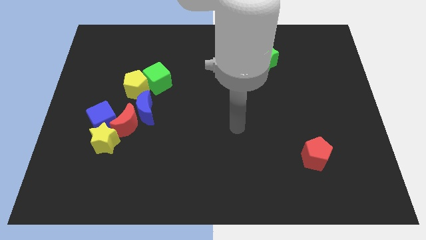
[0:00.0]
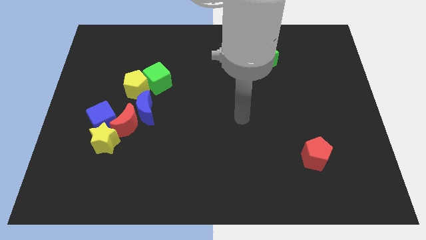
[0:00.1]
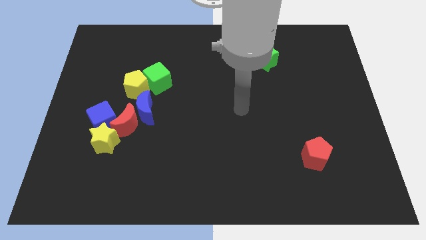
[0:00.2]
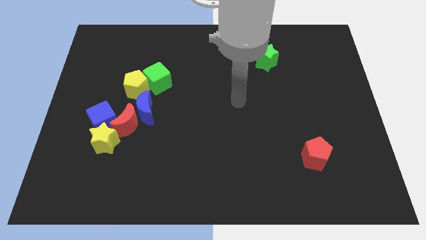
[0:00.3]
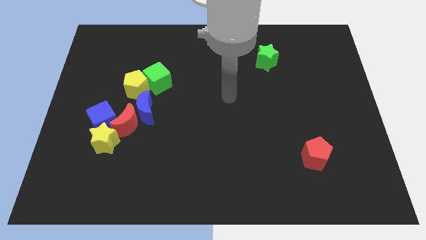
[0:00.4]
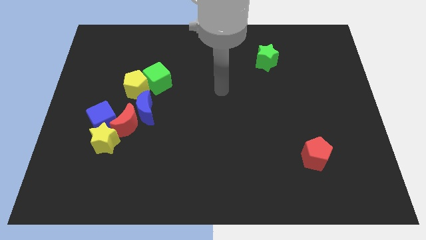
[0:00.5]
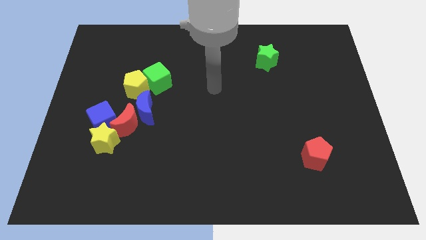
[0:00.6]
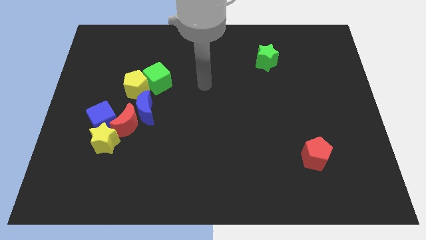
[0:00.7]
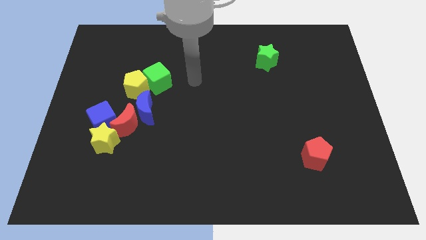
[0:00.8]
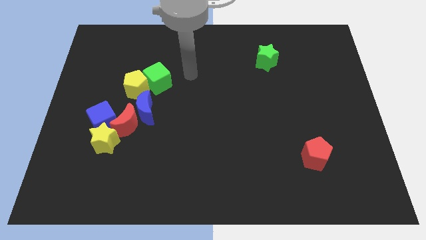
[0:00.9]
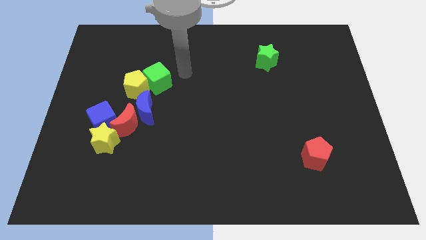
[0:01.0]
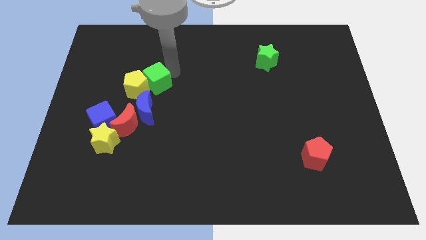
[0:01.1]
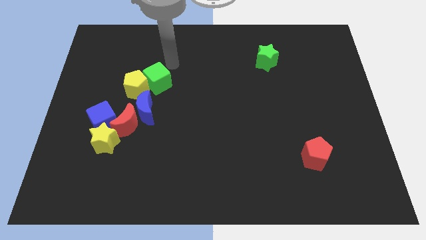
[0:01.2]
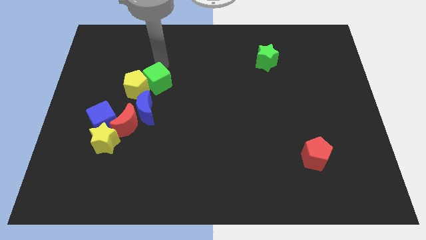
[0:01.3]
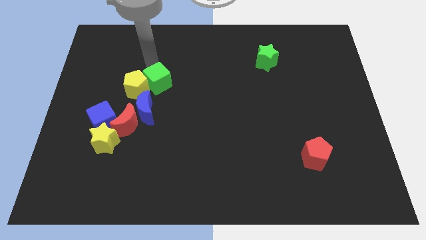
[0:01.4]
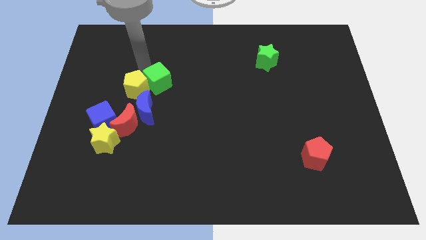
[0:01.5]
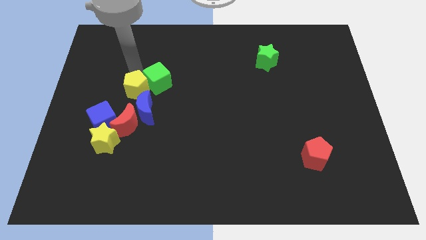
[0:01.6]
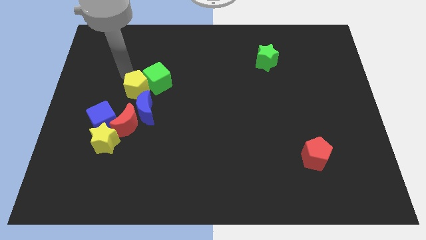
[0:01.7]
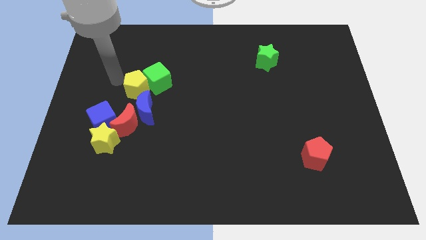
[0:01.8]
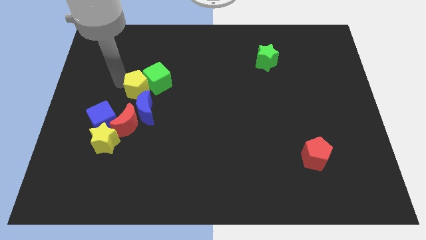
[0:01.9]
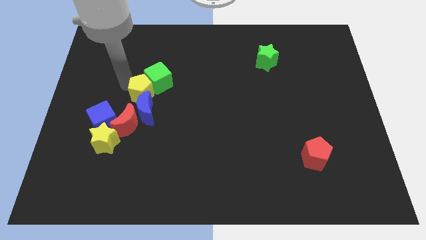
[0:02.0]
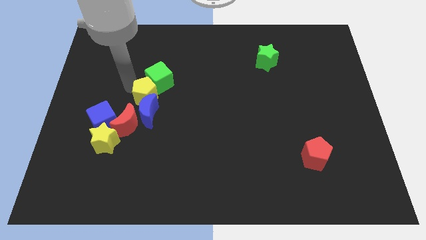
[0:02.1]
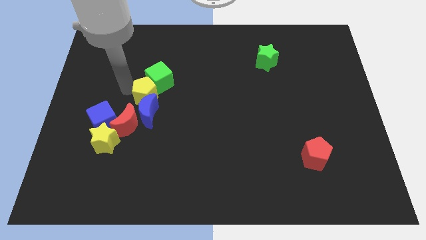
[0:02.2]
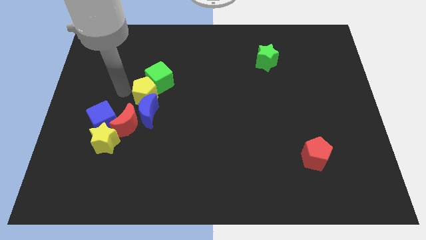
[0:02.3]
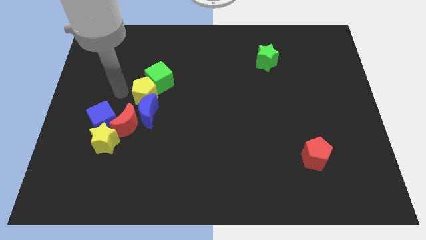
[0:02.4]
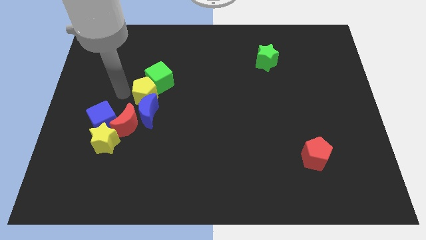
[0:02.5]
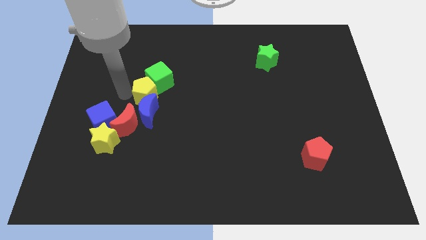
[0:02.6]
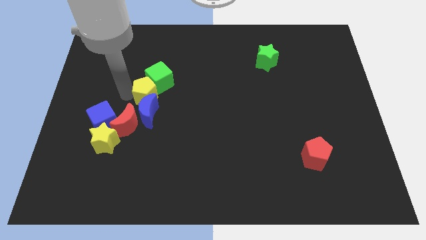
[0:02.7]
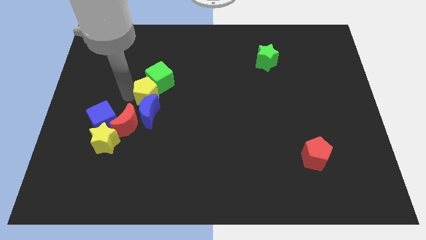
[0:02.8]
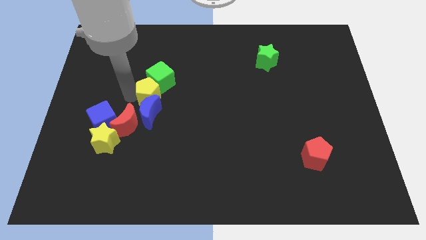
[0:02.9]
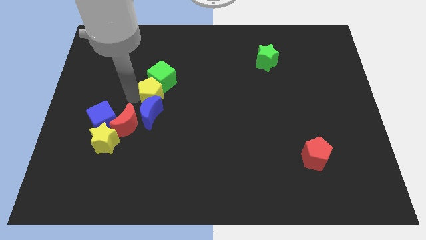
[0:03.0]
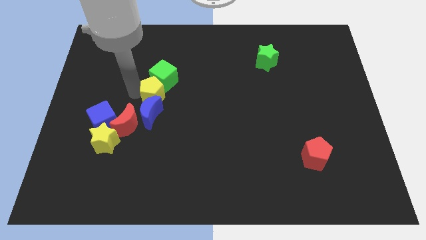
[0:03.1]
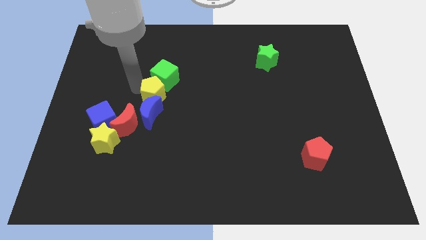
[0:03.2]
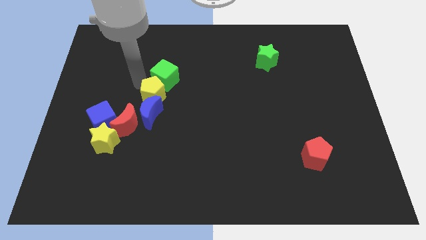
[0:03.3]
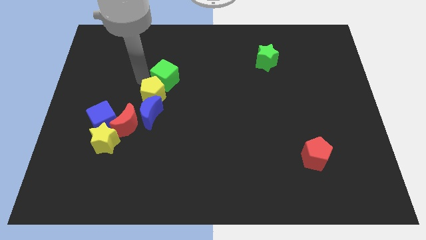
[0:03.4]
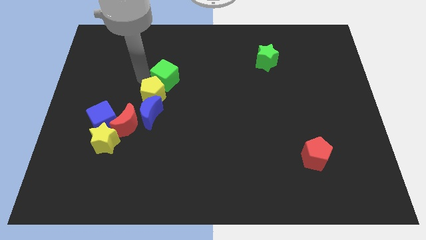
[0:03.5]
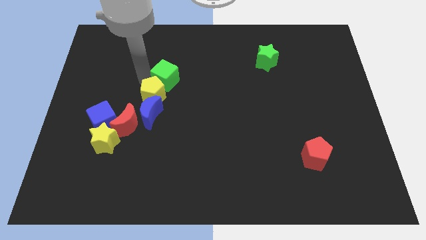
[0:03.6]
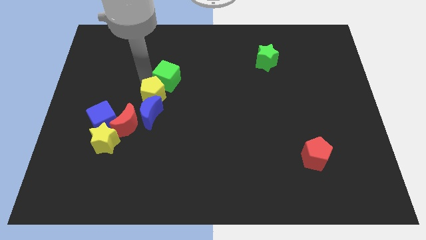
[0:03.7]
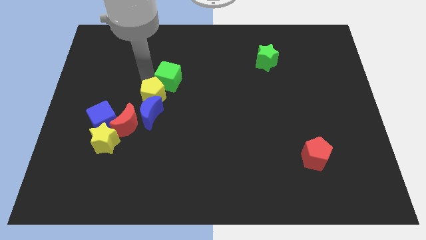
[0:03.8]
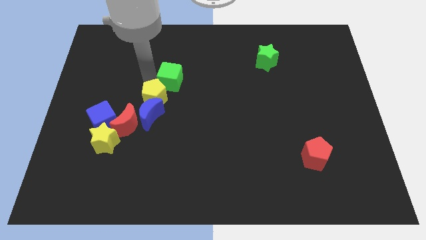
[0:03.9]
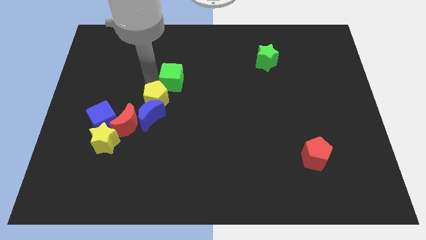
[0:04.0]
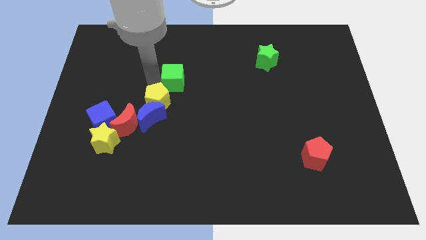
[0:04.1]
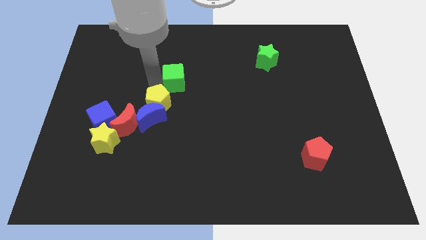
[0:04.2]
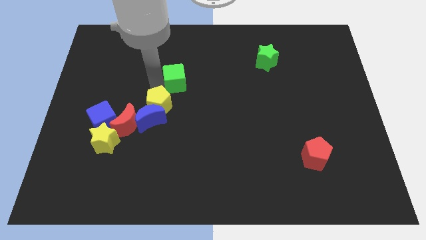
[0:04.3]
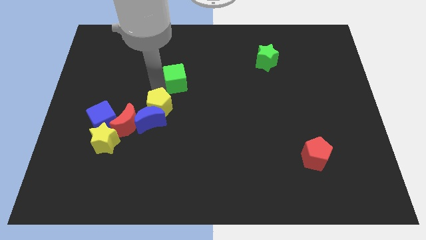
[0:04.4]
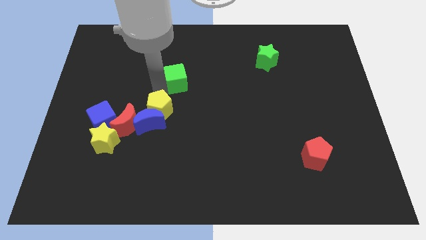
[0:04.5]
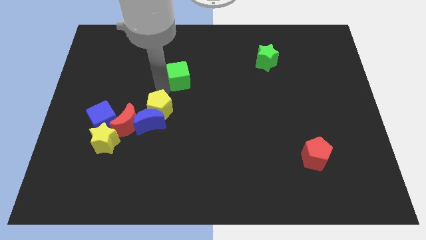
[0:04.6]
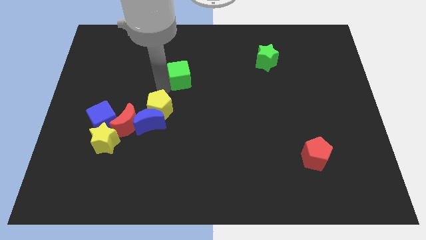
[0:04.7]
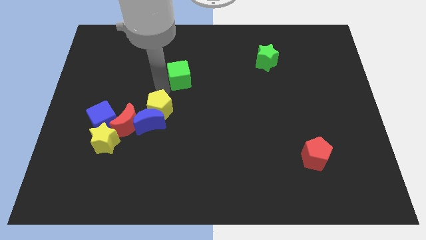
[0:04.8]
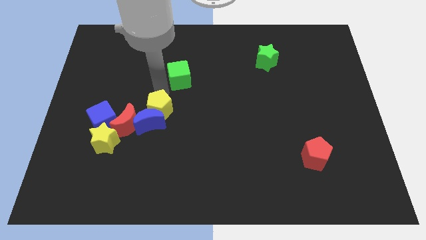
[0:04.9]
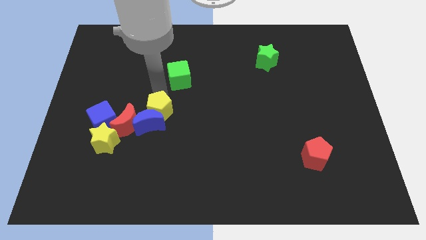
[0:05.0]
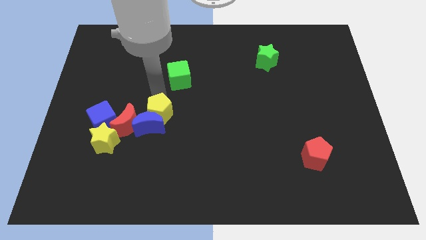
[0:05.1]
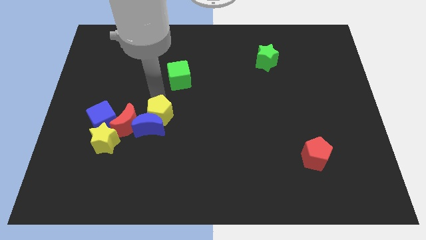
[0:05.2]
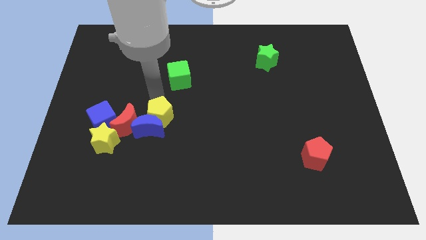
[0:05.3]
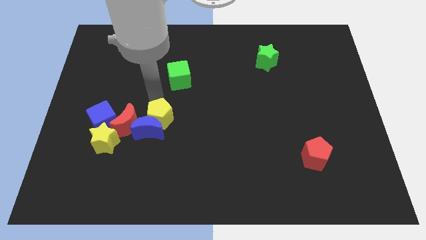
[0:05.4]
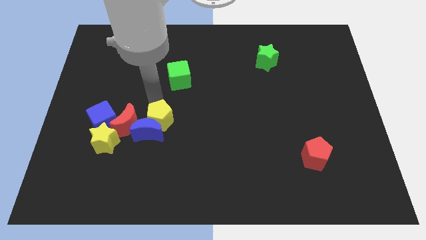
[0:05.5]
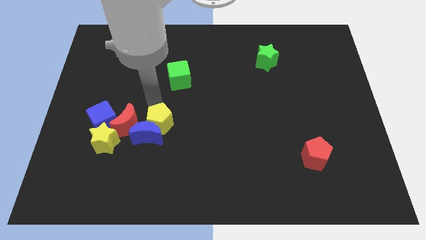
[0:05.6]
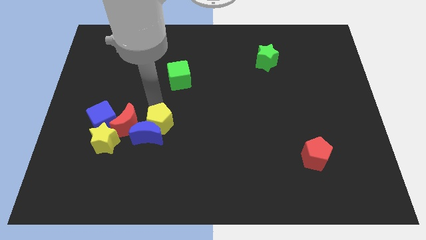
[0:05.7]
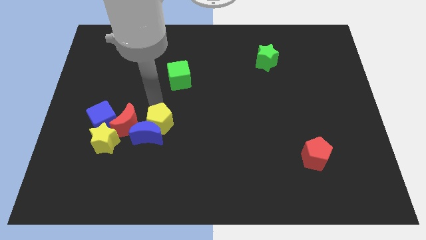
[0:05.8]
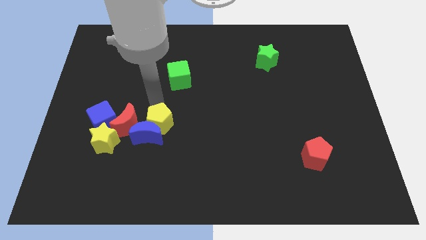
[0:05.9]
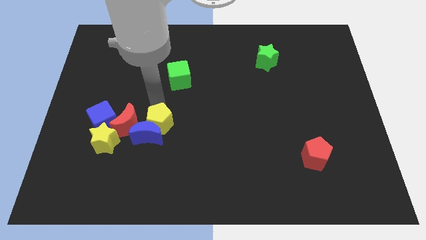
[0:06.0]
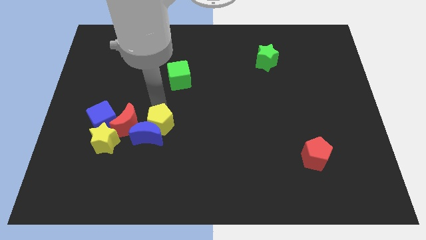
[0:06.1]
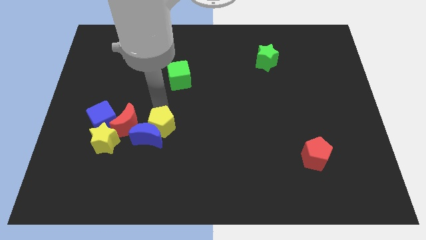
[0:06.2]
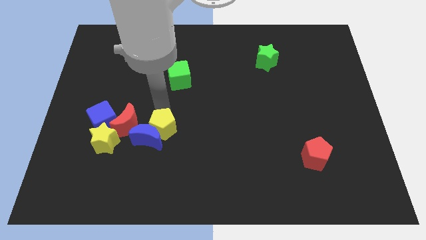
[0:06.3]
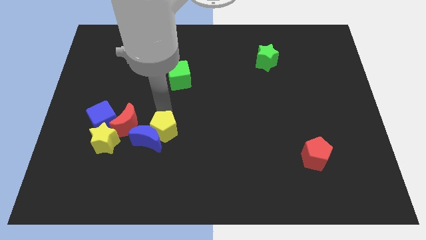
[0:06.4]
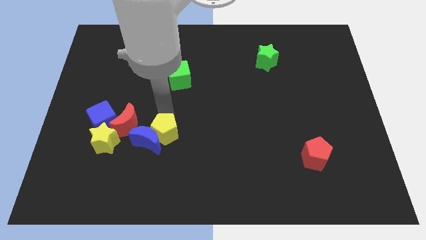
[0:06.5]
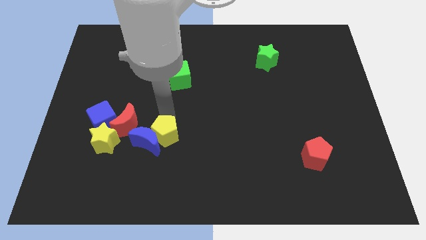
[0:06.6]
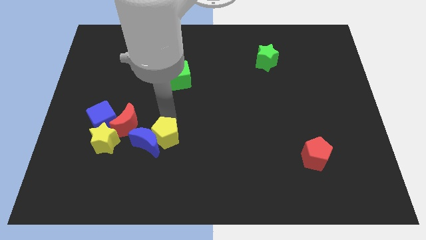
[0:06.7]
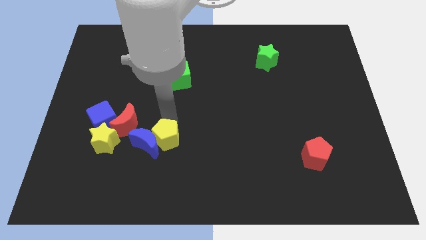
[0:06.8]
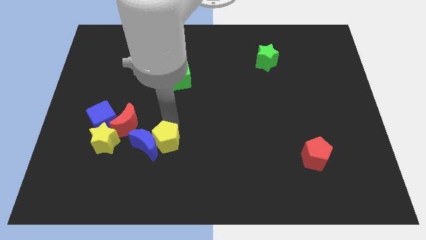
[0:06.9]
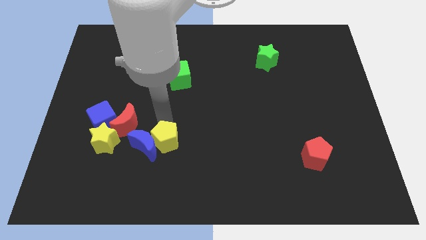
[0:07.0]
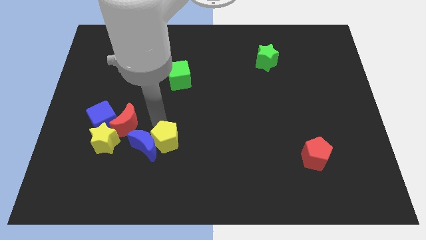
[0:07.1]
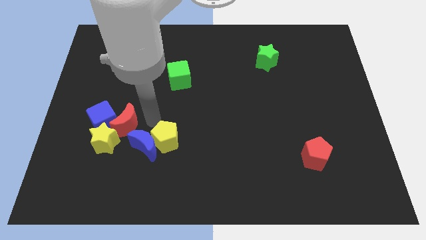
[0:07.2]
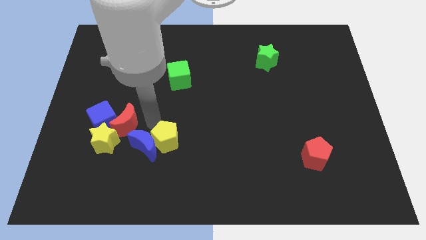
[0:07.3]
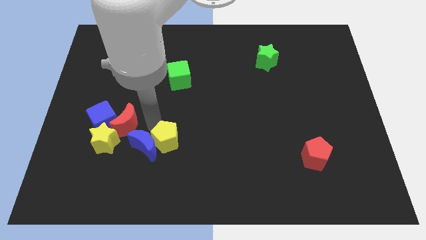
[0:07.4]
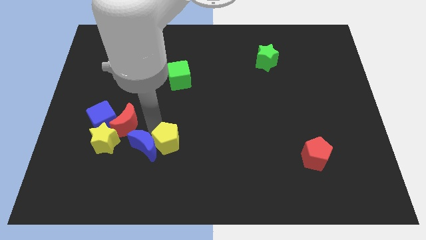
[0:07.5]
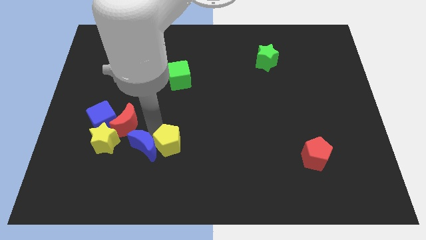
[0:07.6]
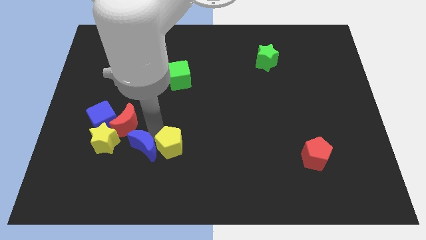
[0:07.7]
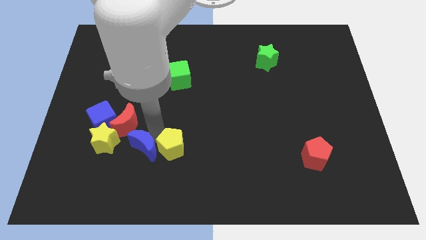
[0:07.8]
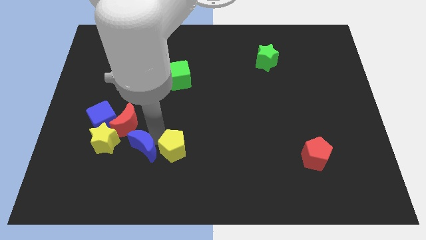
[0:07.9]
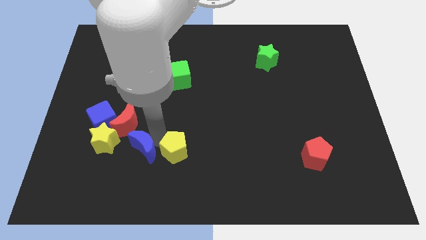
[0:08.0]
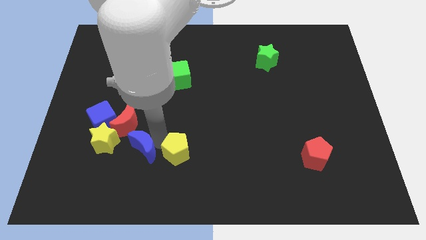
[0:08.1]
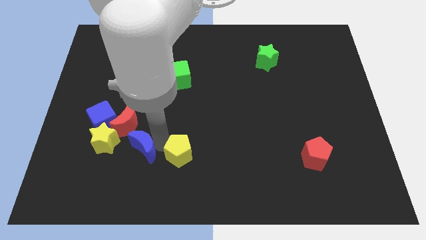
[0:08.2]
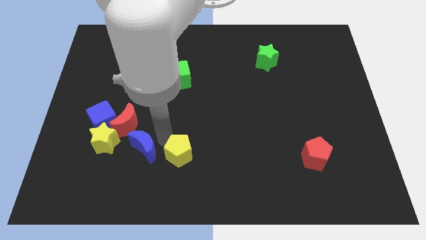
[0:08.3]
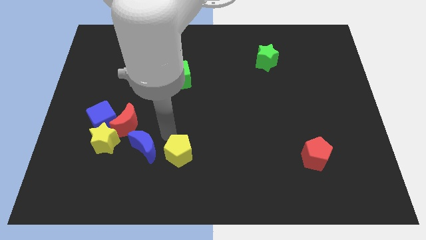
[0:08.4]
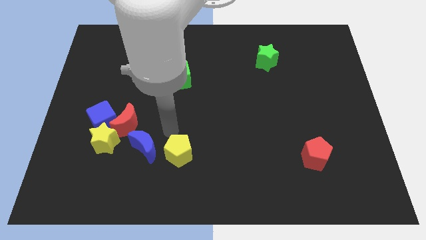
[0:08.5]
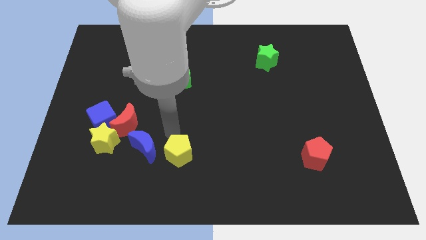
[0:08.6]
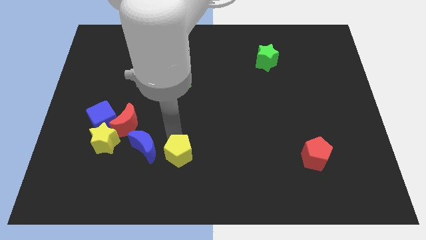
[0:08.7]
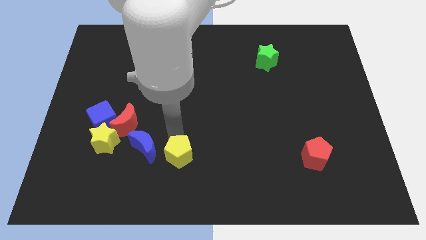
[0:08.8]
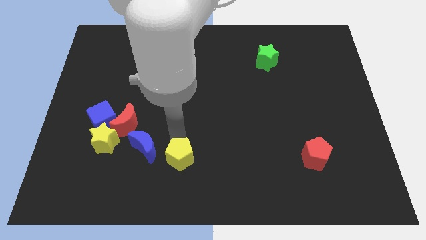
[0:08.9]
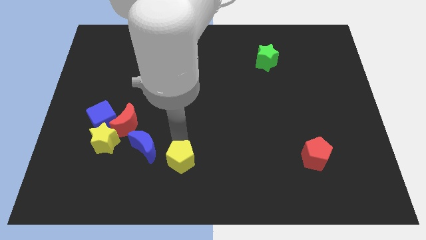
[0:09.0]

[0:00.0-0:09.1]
move the yellow pentagon to the bottom
